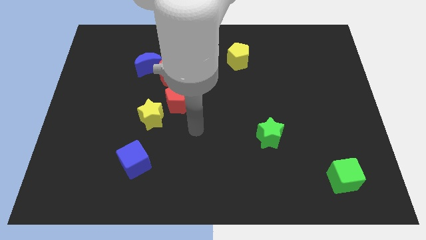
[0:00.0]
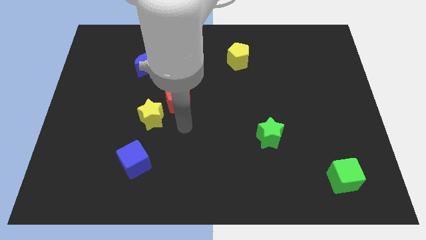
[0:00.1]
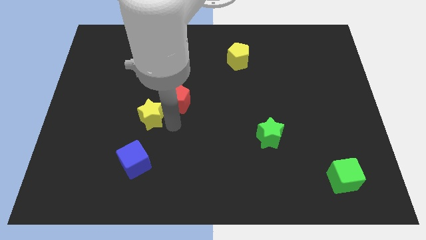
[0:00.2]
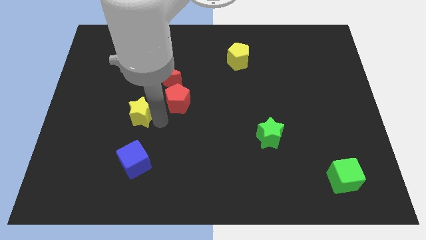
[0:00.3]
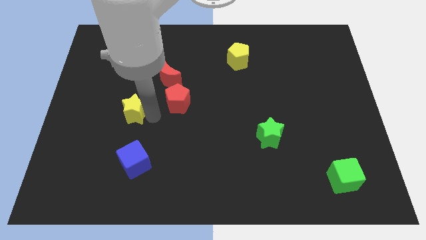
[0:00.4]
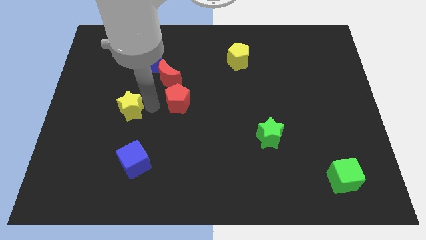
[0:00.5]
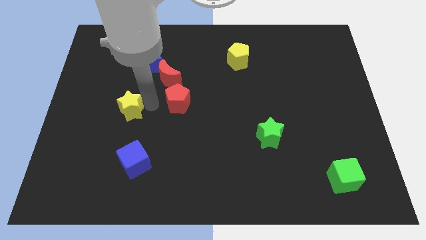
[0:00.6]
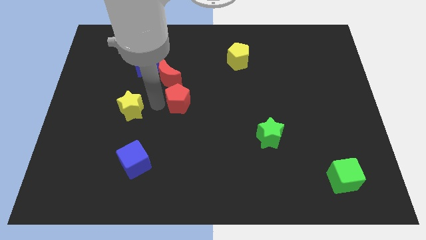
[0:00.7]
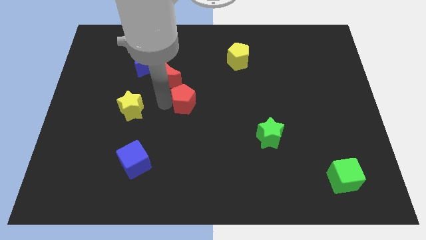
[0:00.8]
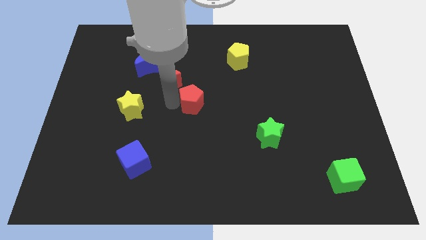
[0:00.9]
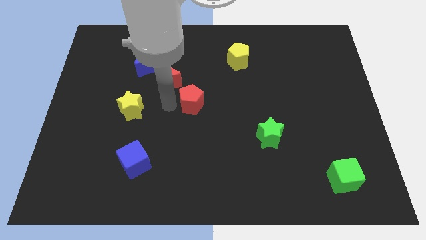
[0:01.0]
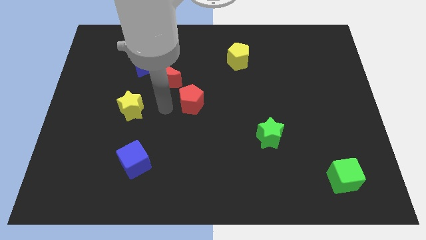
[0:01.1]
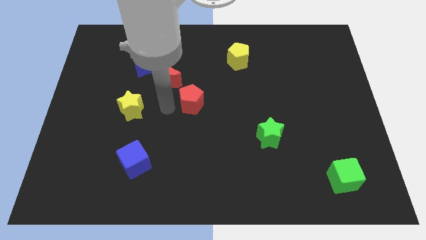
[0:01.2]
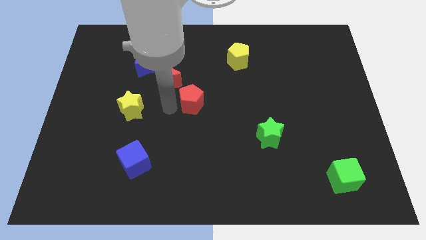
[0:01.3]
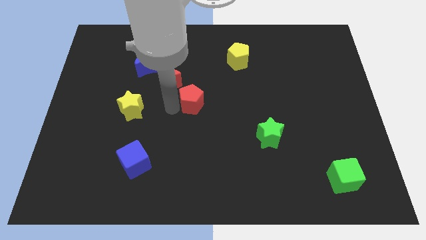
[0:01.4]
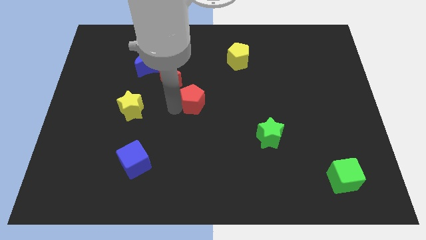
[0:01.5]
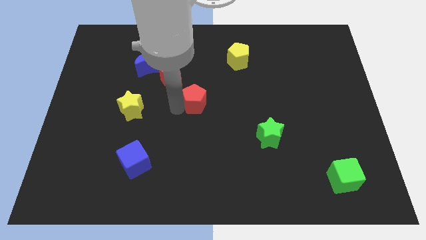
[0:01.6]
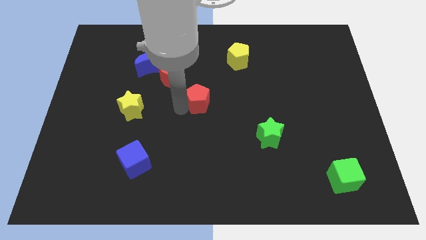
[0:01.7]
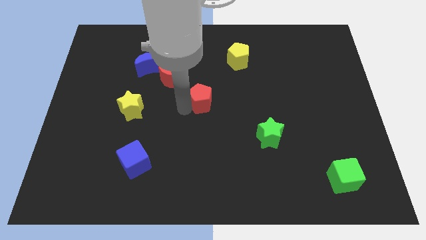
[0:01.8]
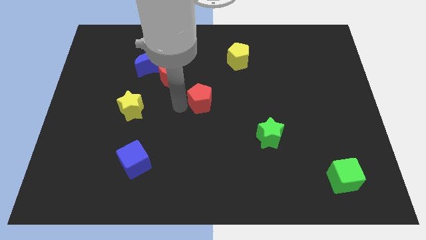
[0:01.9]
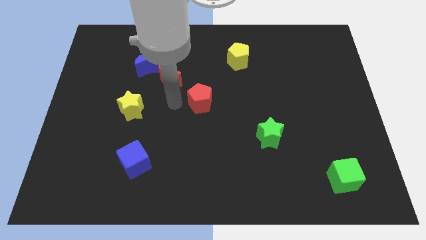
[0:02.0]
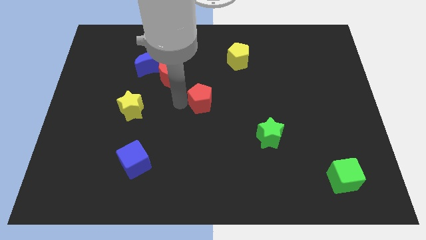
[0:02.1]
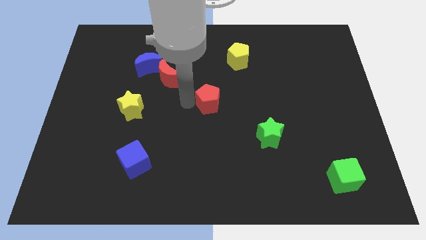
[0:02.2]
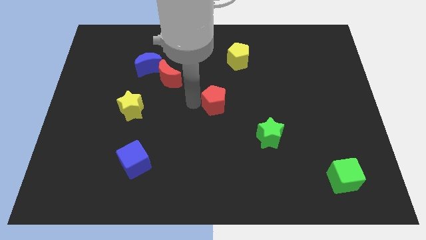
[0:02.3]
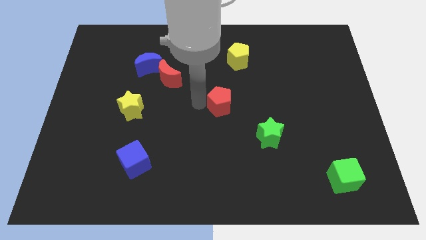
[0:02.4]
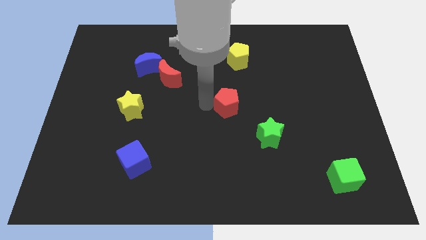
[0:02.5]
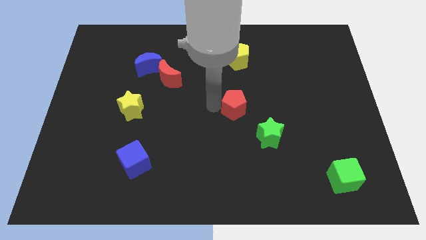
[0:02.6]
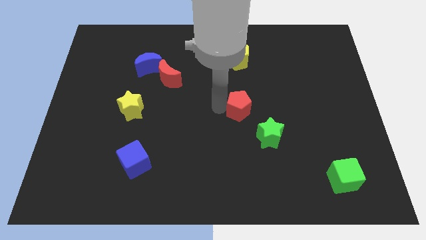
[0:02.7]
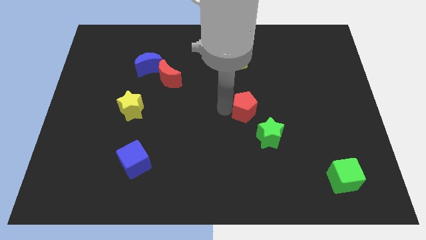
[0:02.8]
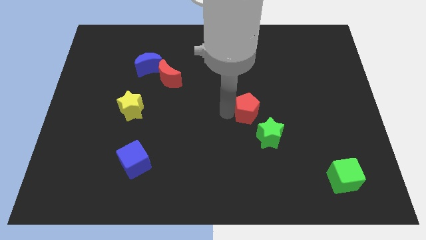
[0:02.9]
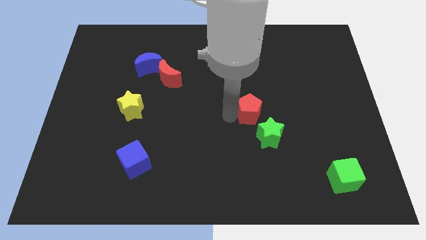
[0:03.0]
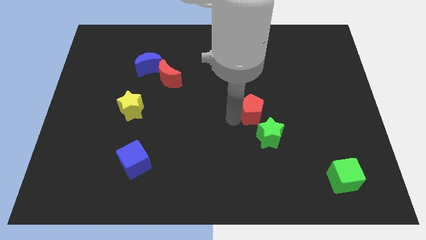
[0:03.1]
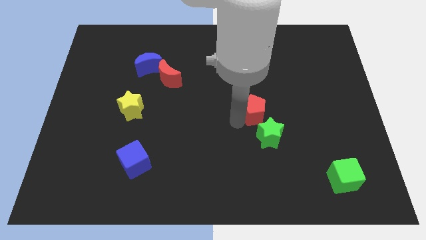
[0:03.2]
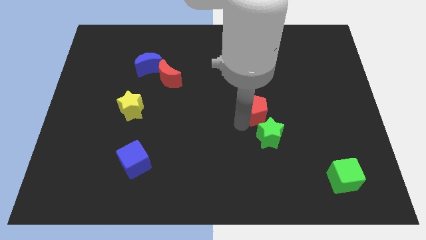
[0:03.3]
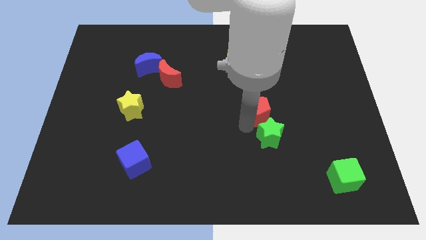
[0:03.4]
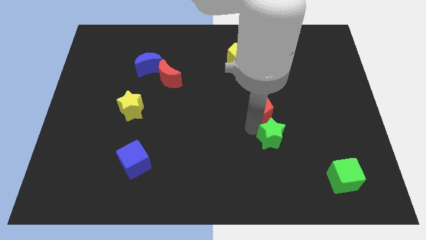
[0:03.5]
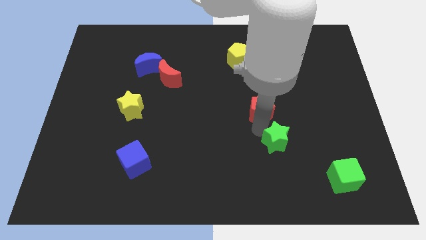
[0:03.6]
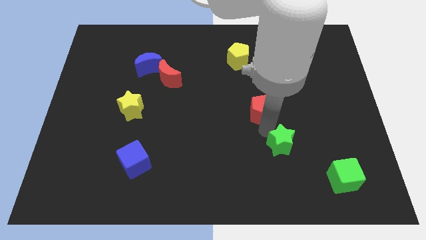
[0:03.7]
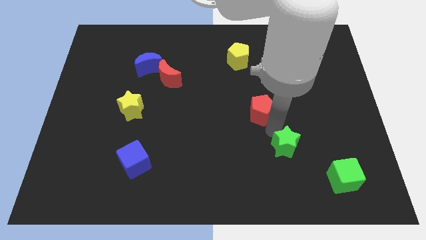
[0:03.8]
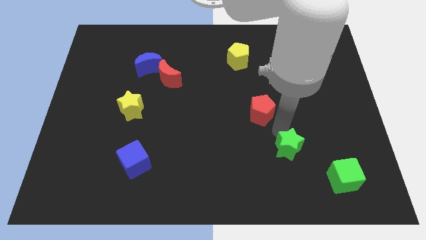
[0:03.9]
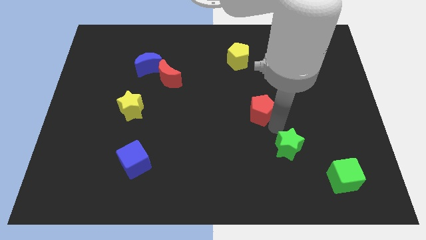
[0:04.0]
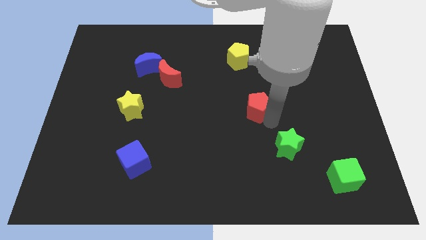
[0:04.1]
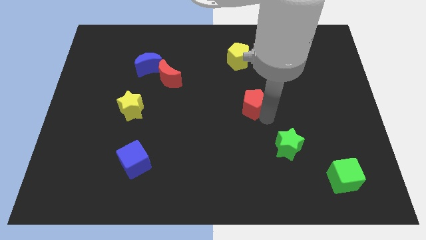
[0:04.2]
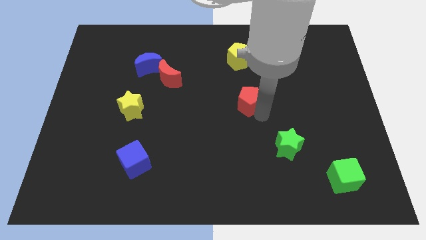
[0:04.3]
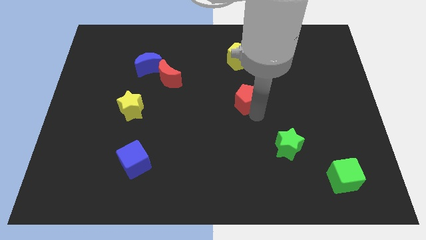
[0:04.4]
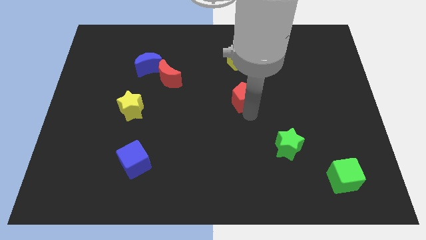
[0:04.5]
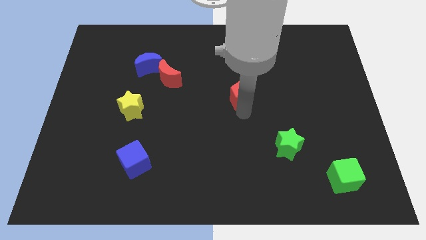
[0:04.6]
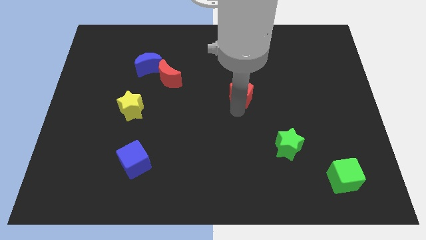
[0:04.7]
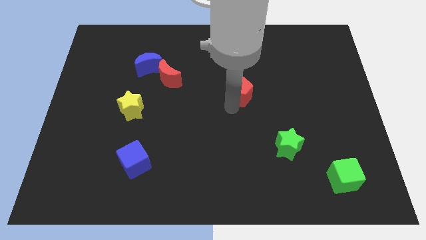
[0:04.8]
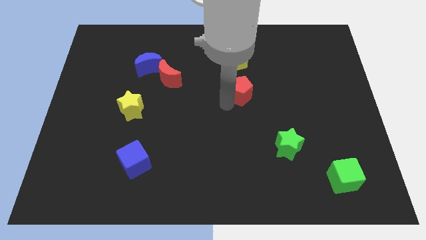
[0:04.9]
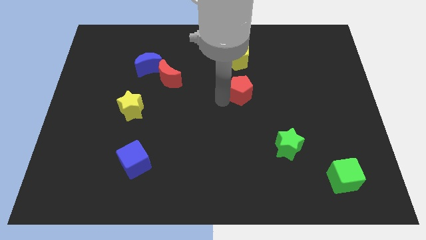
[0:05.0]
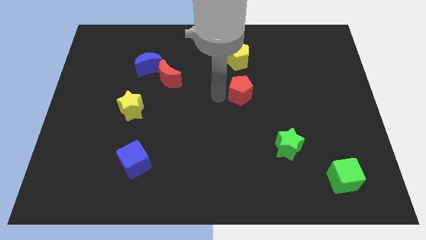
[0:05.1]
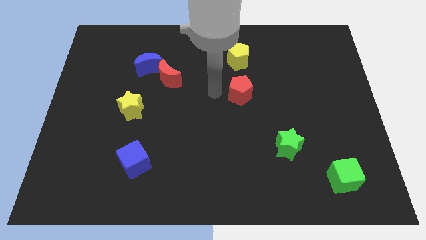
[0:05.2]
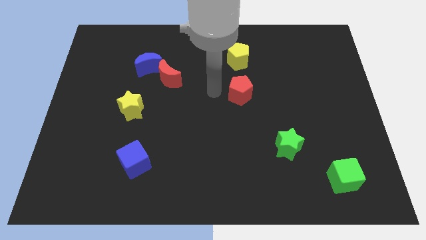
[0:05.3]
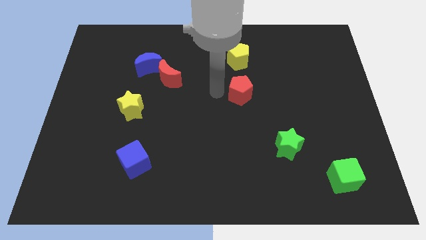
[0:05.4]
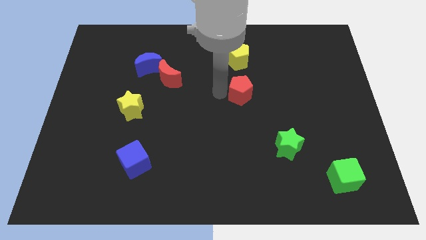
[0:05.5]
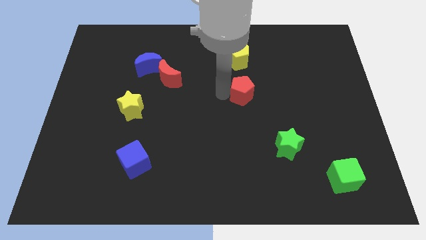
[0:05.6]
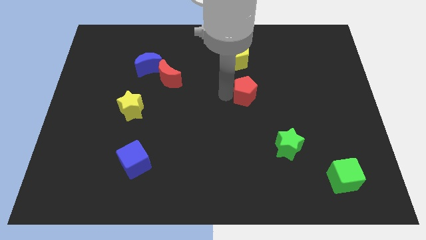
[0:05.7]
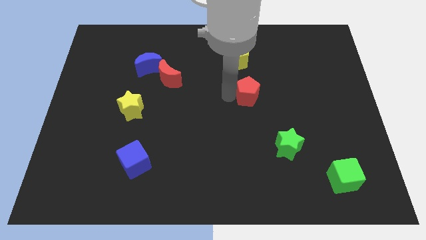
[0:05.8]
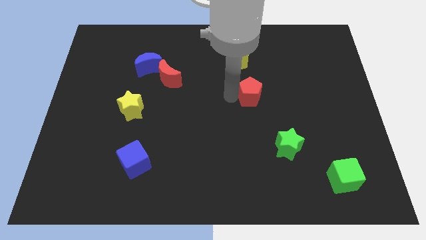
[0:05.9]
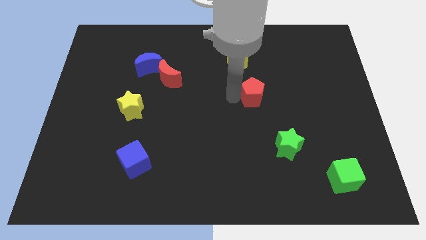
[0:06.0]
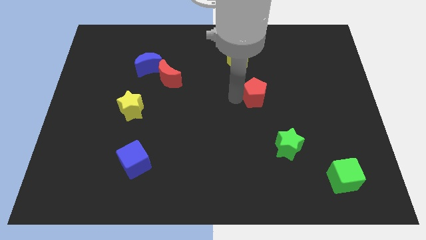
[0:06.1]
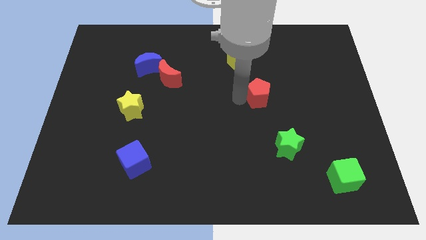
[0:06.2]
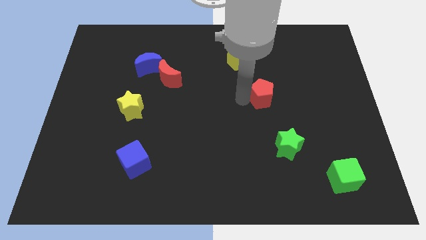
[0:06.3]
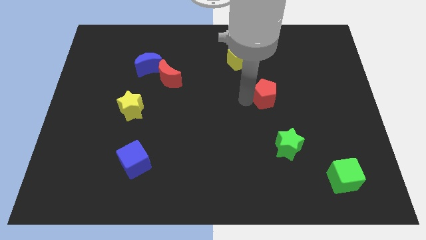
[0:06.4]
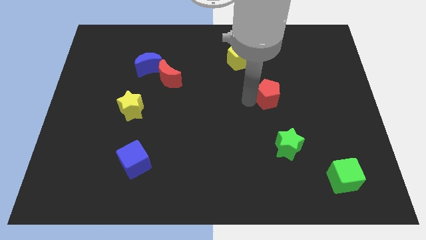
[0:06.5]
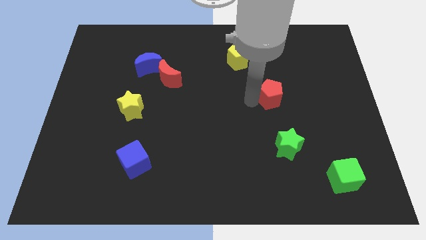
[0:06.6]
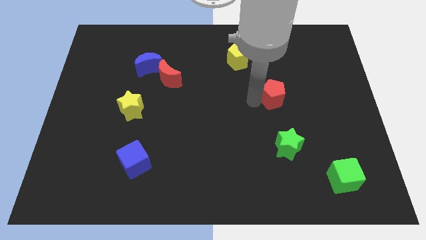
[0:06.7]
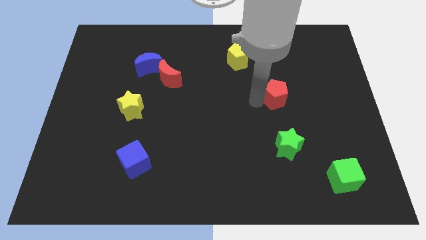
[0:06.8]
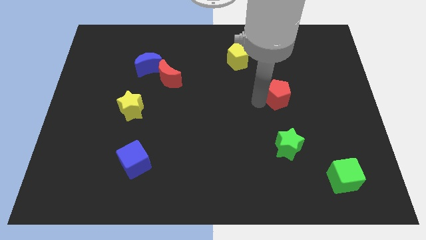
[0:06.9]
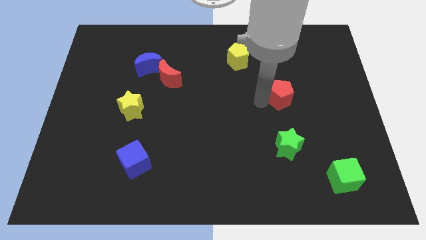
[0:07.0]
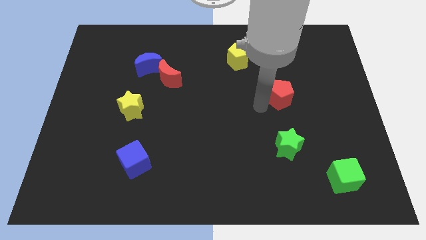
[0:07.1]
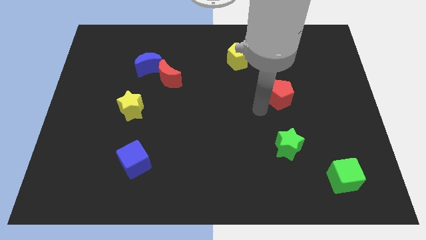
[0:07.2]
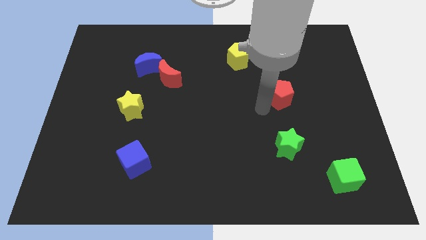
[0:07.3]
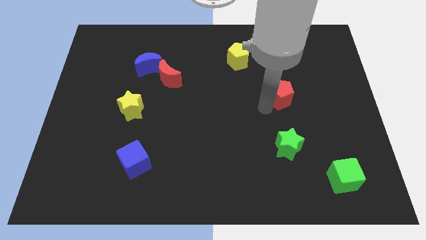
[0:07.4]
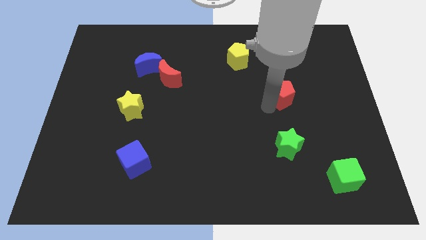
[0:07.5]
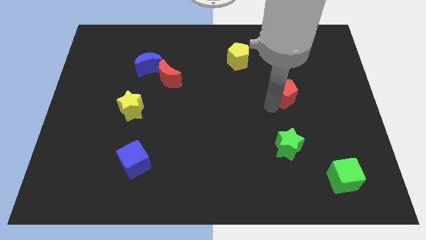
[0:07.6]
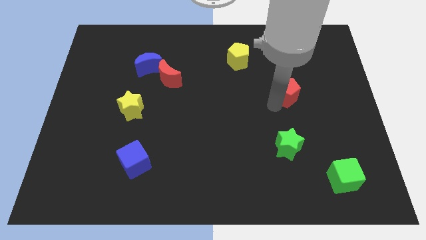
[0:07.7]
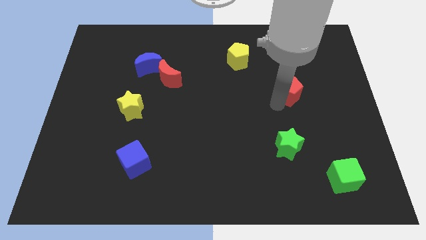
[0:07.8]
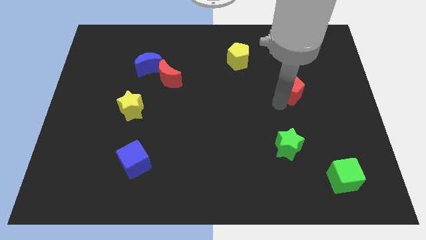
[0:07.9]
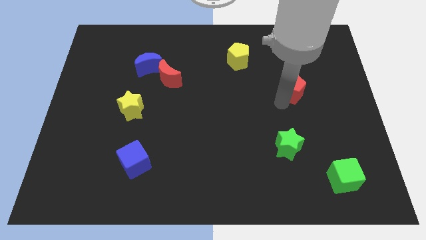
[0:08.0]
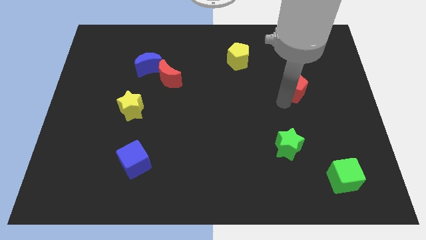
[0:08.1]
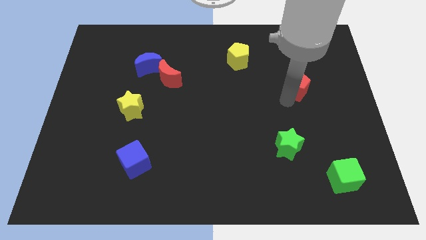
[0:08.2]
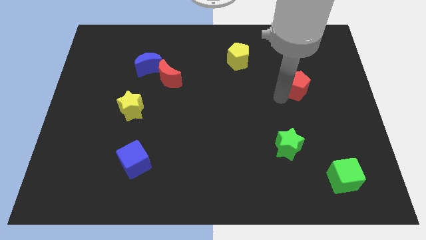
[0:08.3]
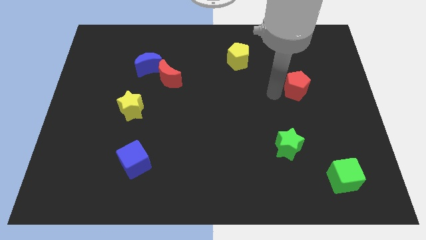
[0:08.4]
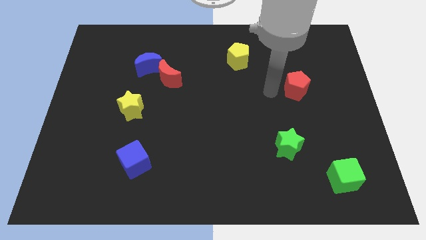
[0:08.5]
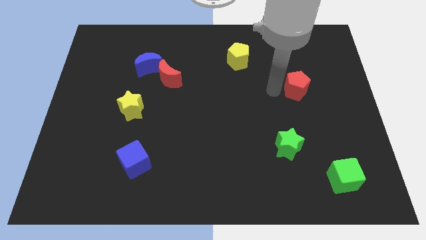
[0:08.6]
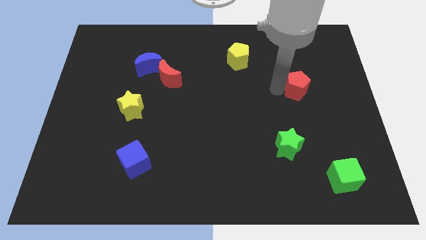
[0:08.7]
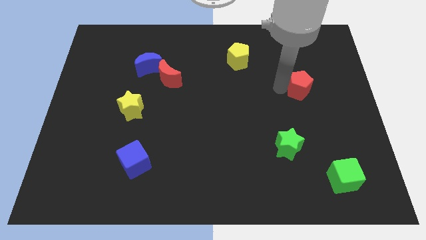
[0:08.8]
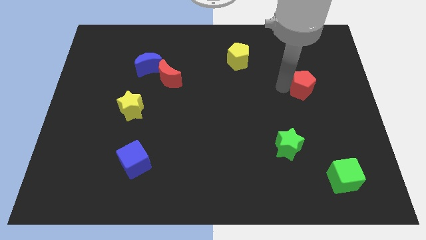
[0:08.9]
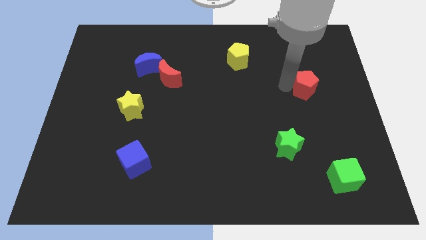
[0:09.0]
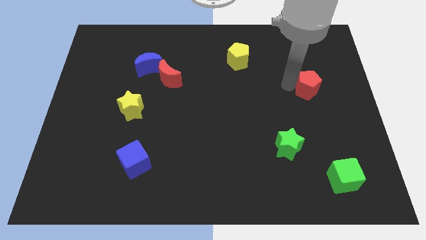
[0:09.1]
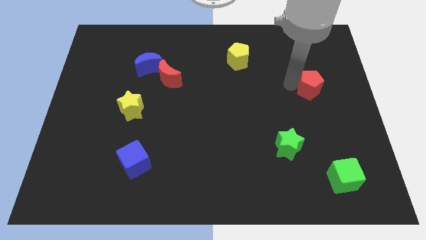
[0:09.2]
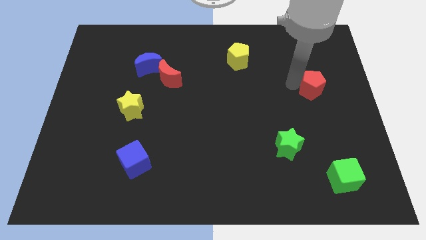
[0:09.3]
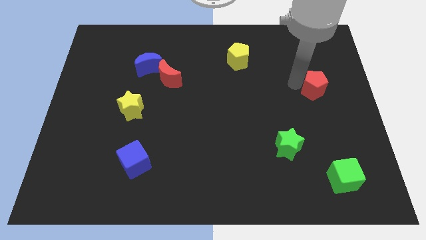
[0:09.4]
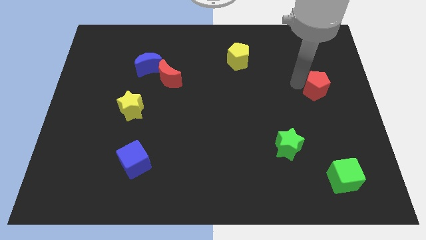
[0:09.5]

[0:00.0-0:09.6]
push the red pentagon to the right side
